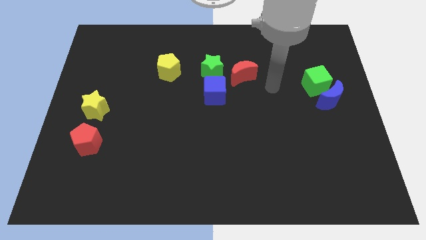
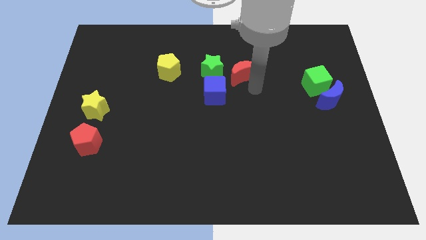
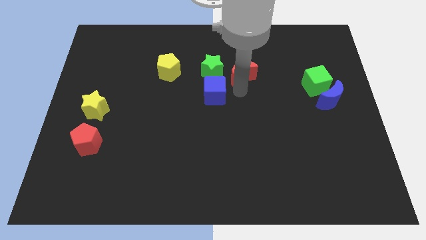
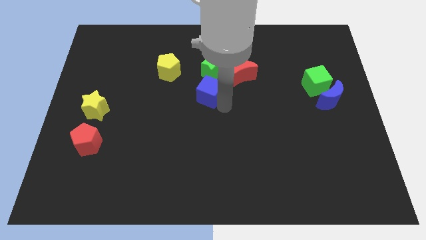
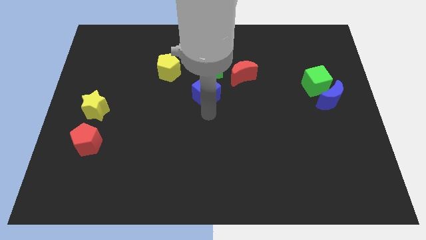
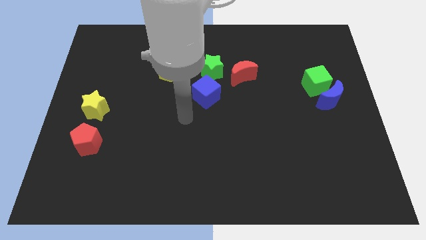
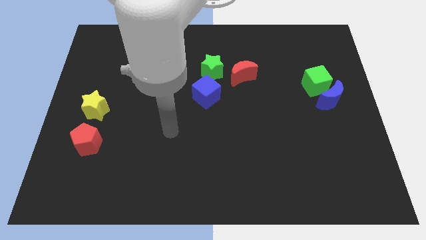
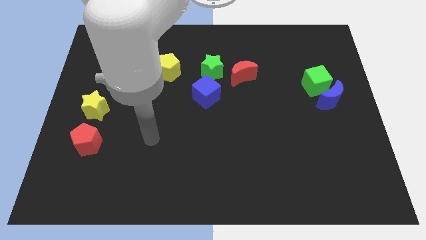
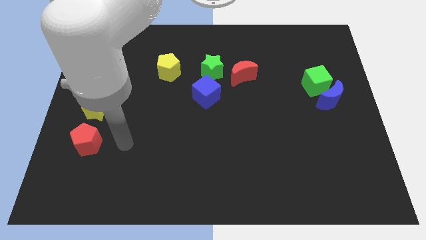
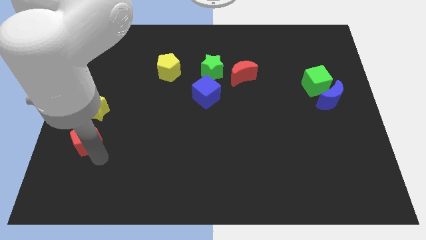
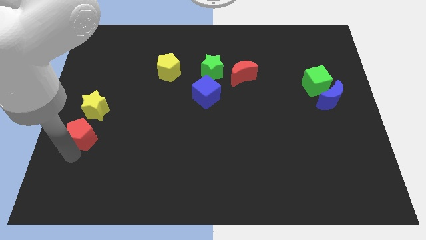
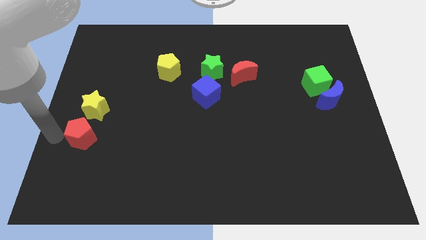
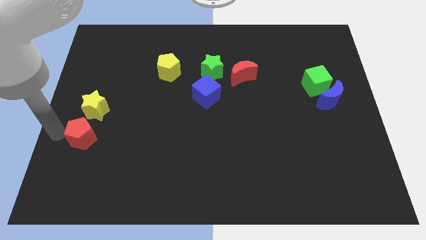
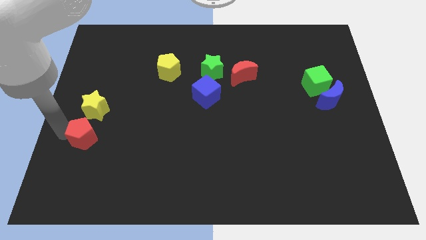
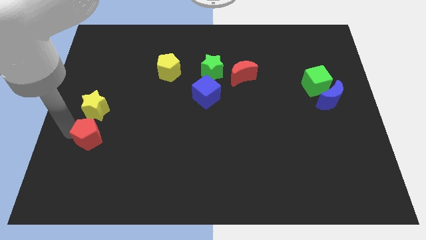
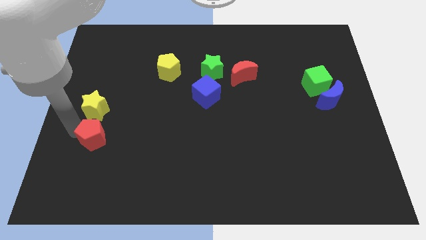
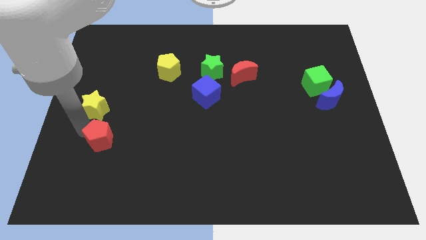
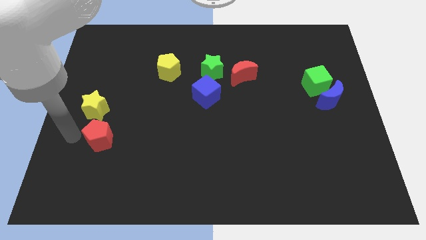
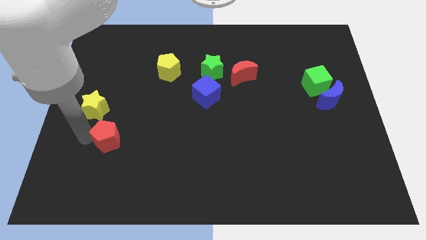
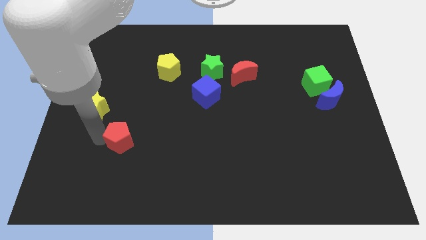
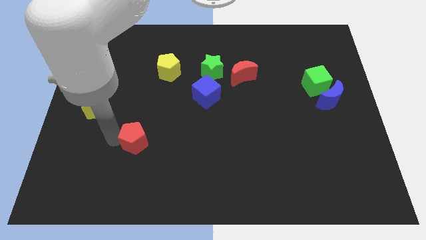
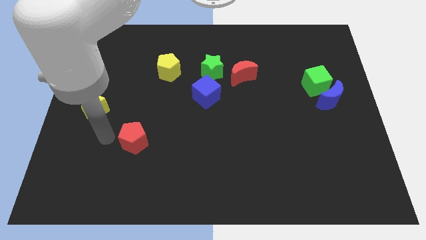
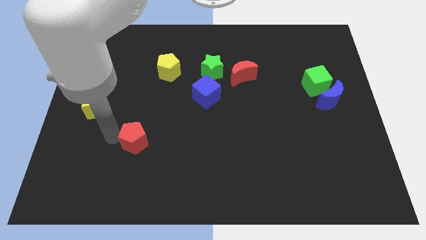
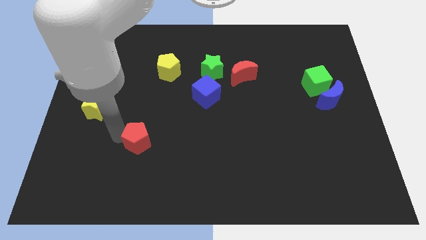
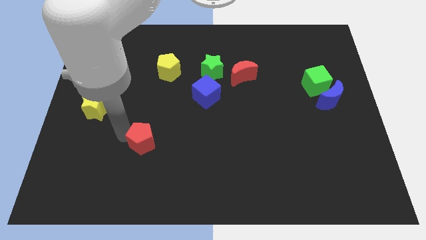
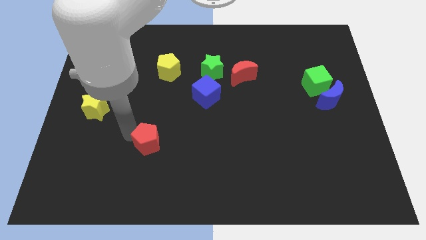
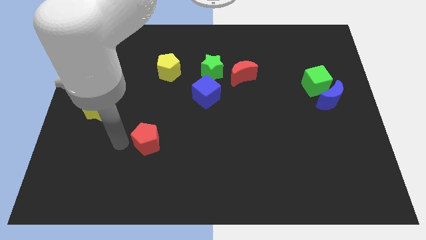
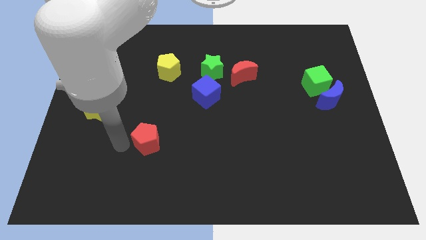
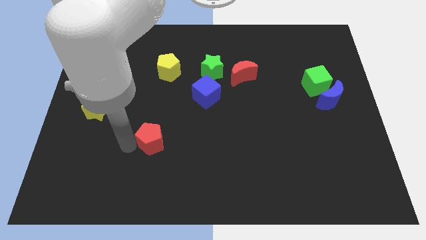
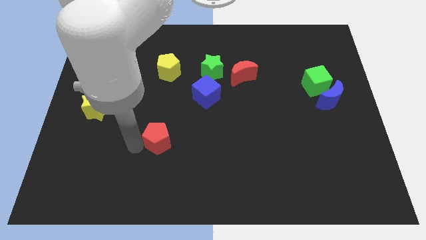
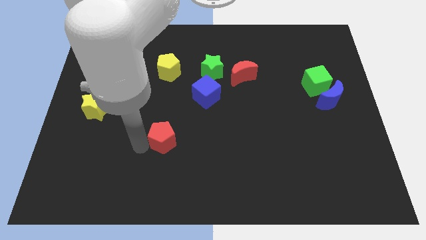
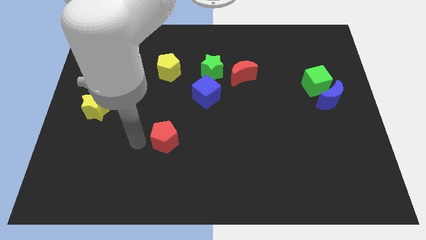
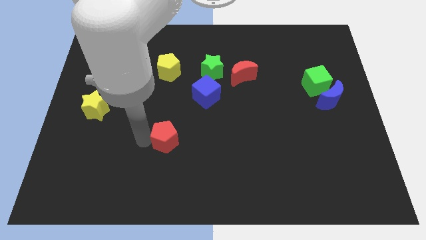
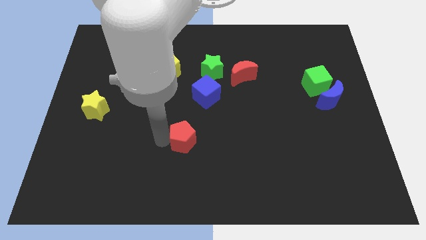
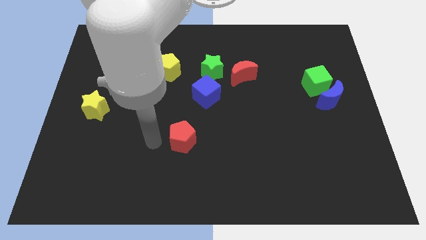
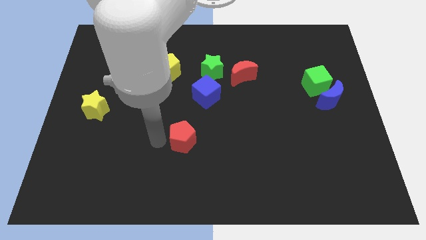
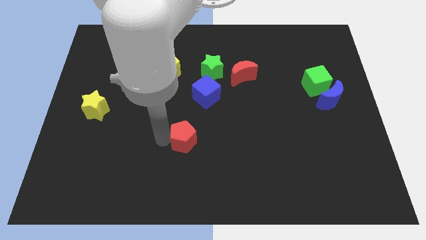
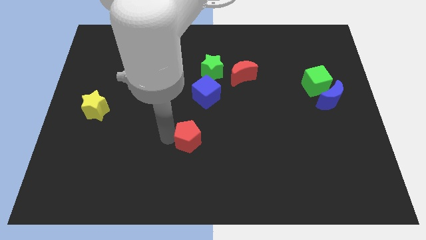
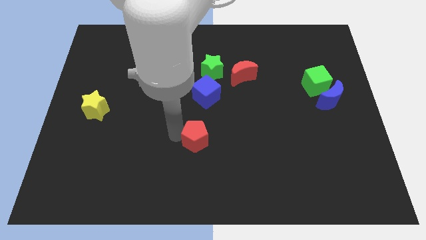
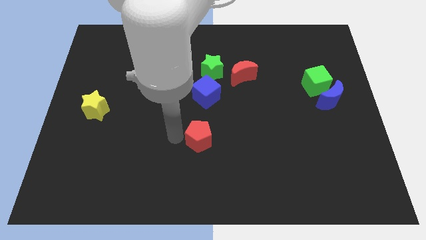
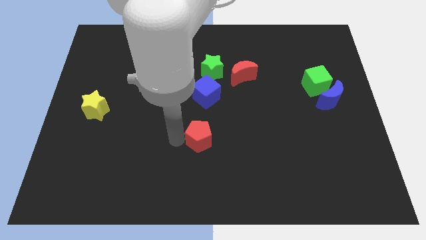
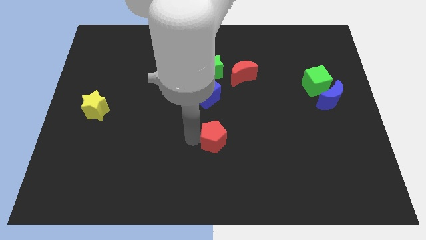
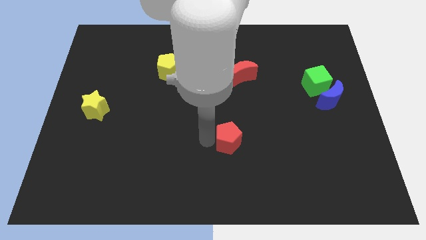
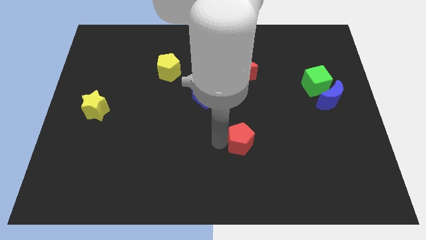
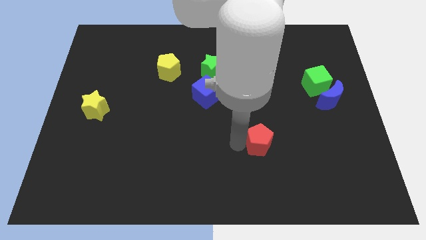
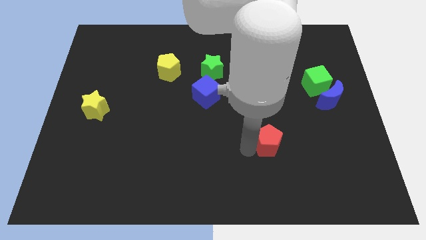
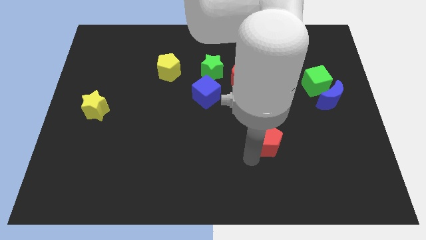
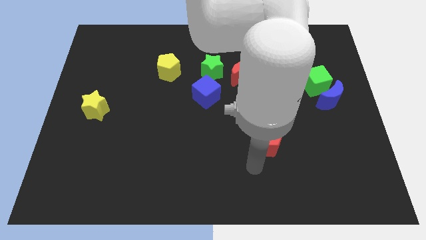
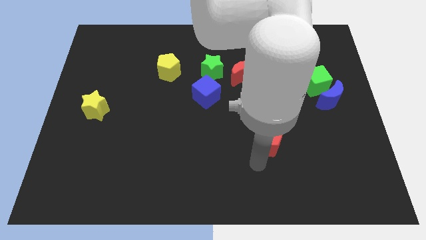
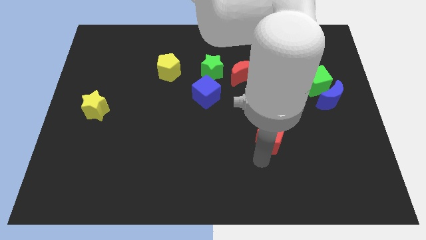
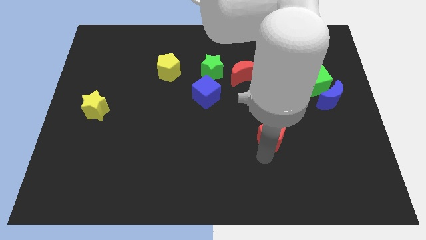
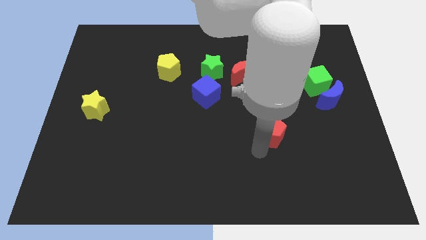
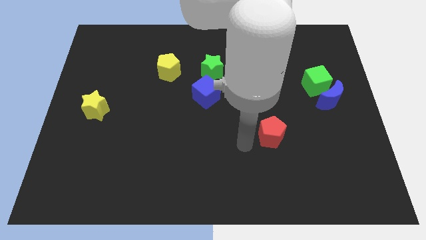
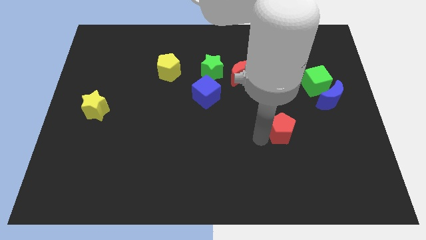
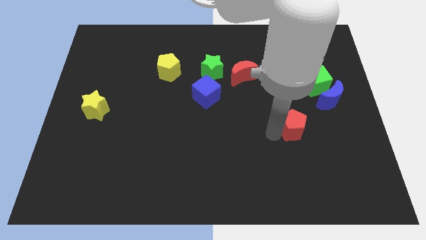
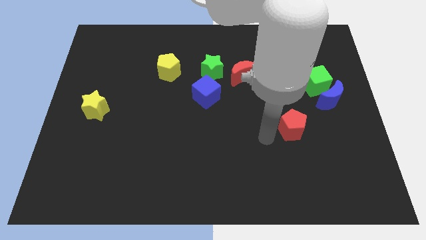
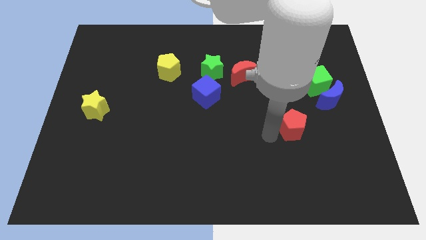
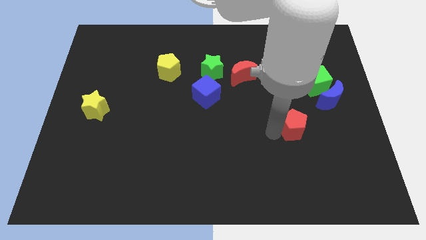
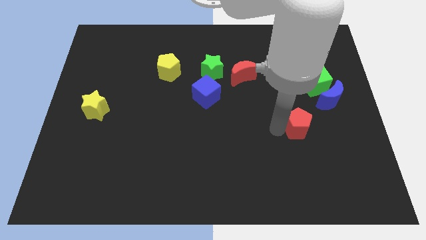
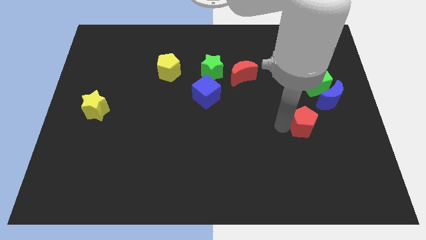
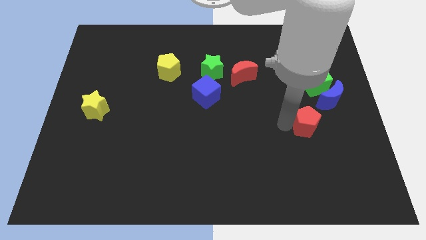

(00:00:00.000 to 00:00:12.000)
put the red pentagon to the bottom side of the green cube

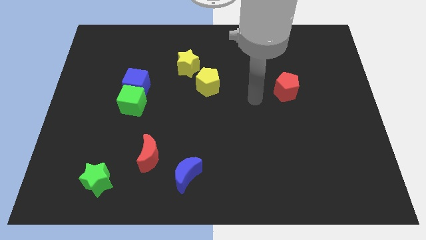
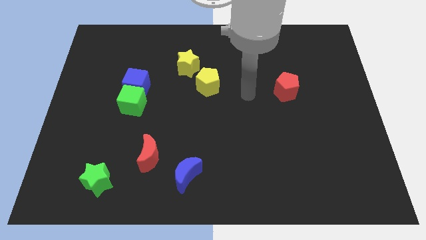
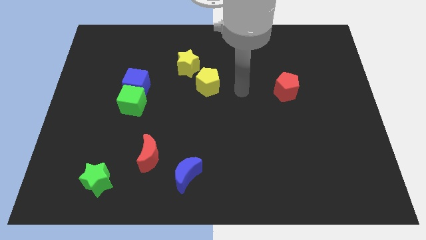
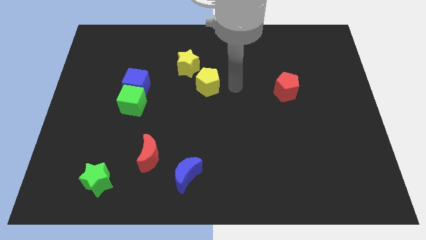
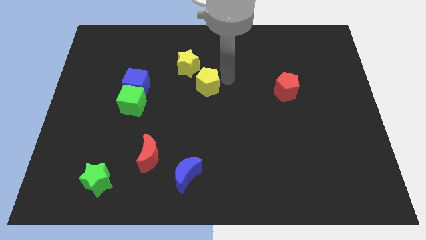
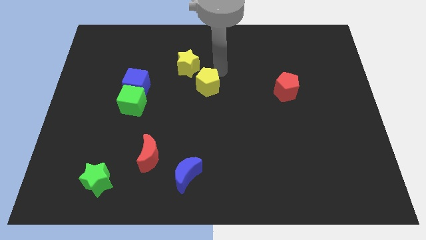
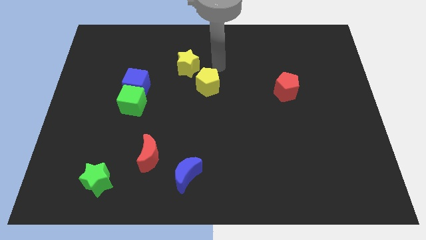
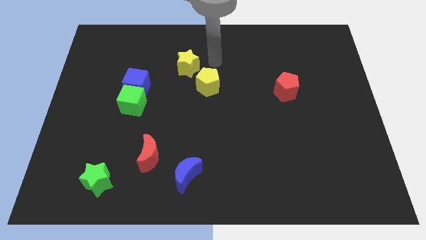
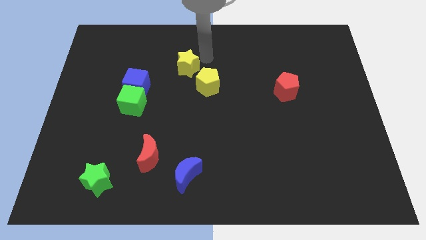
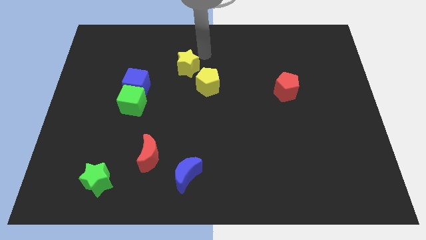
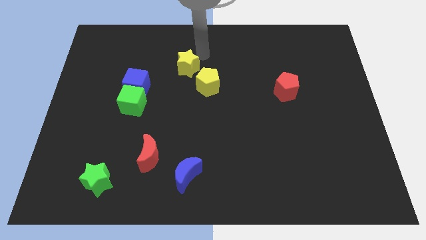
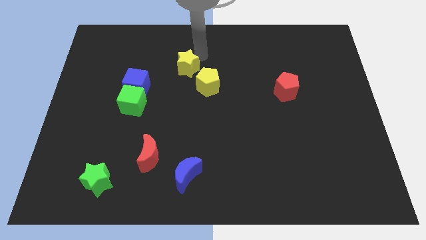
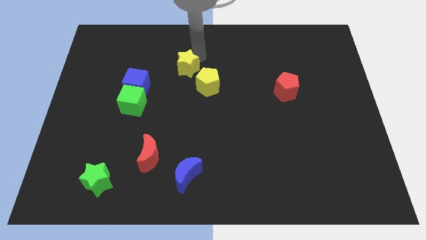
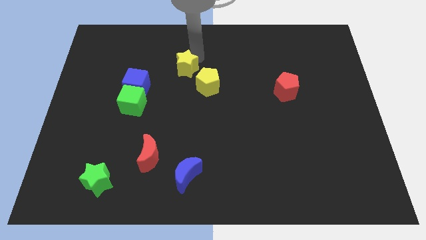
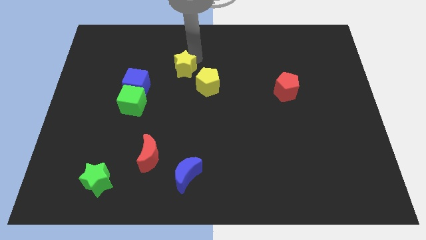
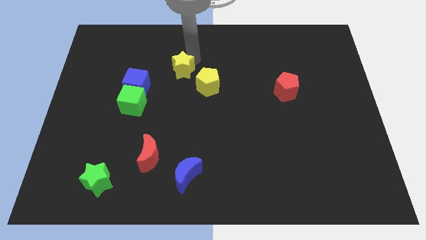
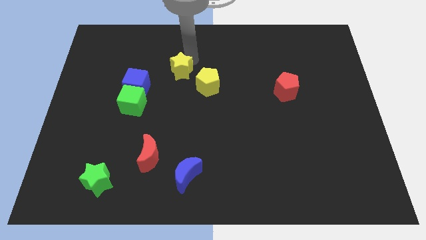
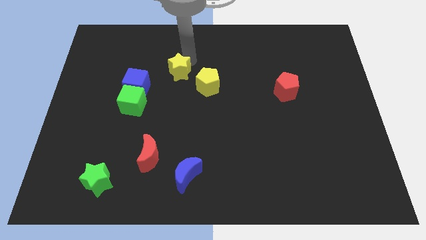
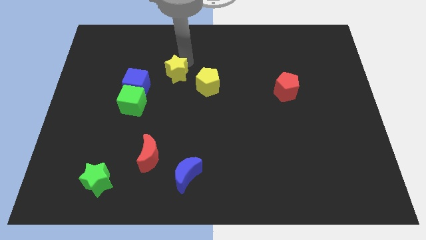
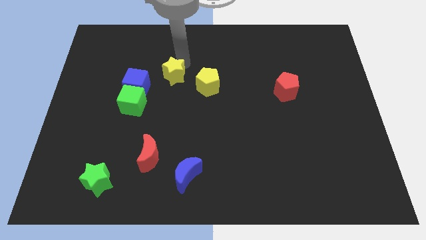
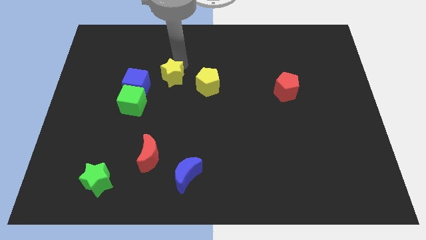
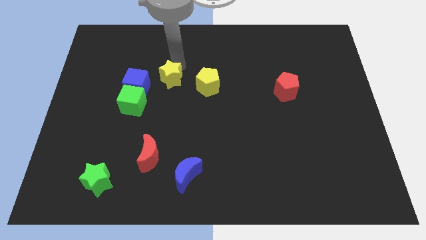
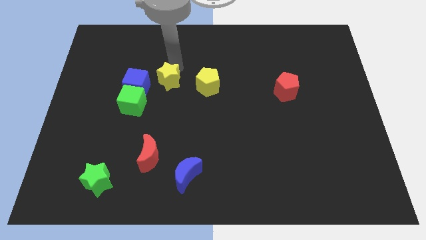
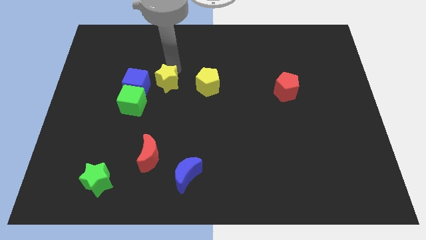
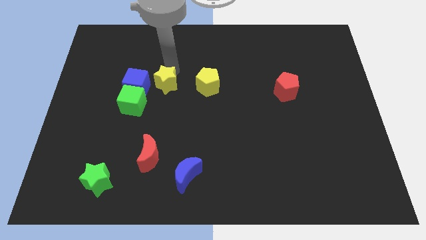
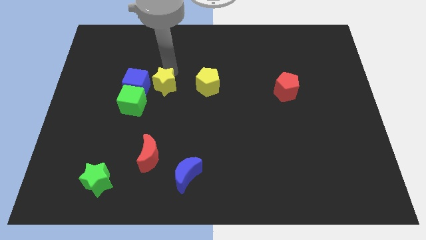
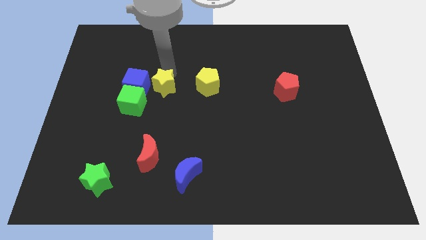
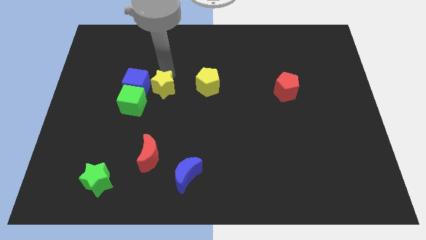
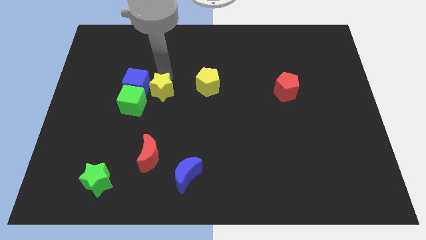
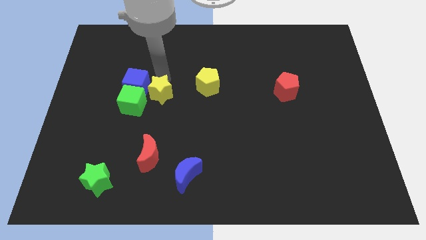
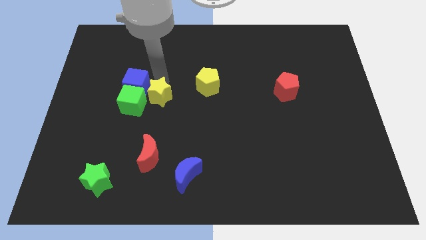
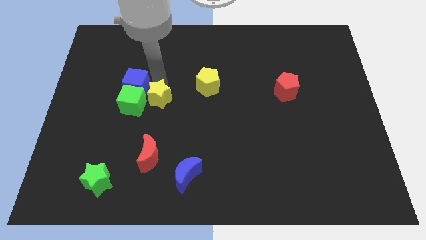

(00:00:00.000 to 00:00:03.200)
push the yellow star to the top side of the red moon
